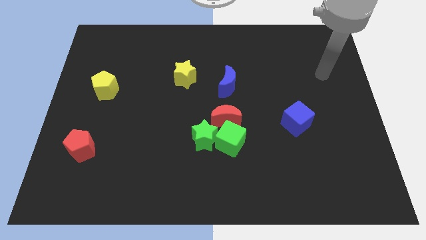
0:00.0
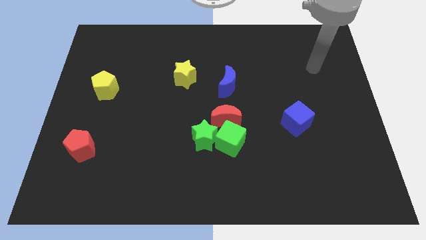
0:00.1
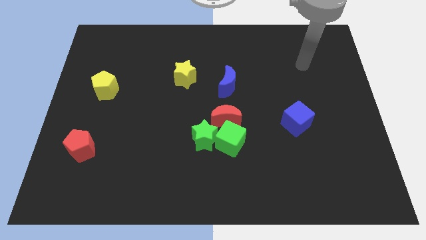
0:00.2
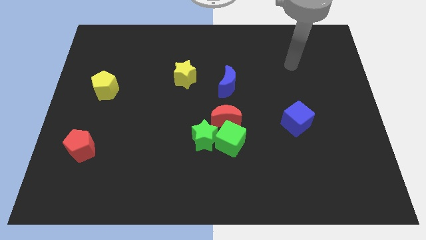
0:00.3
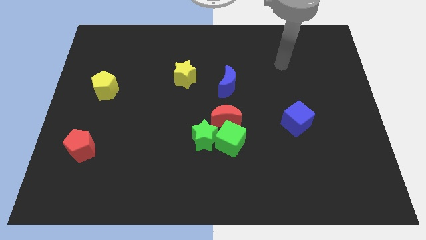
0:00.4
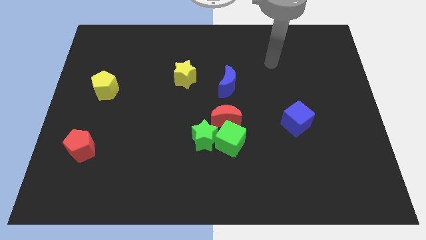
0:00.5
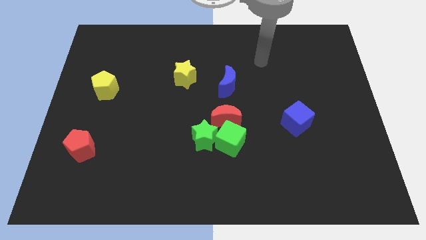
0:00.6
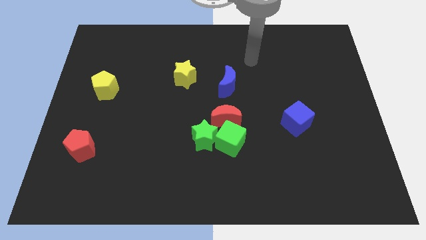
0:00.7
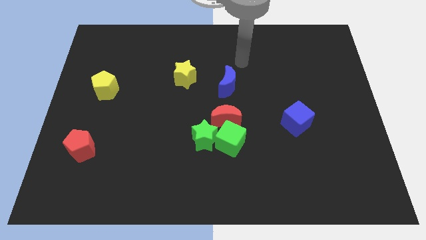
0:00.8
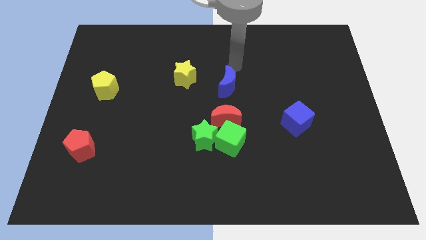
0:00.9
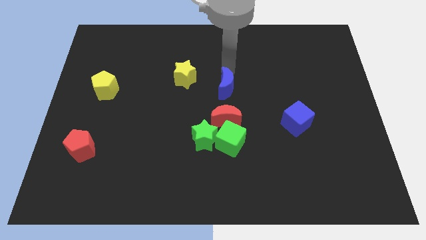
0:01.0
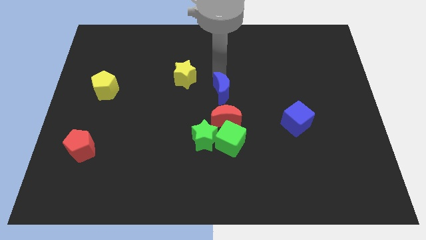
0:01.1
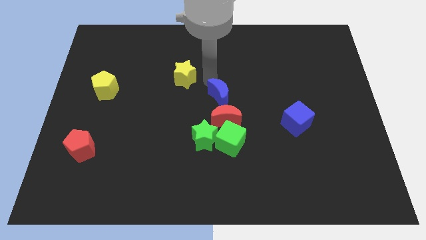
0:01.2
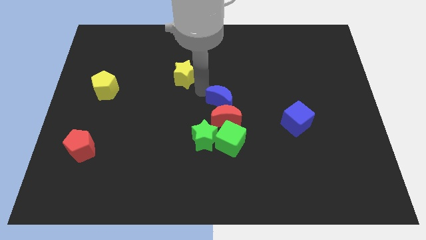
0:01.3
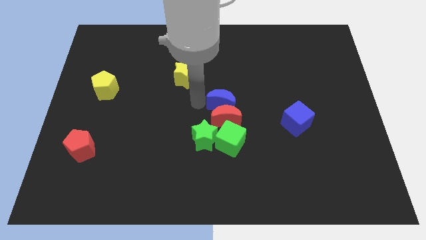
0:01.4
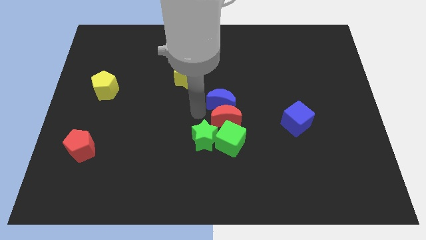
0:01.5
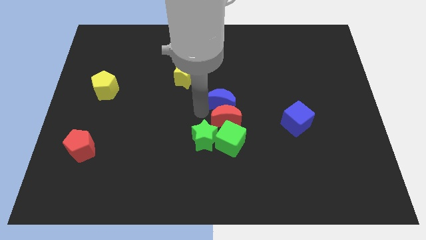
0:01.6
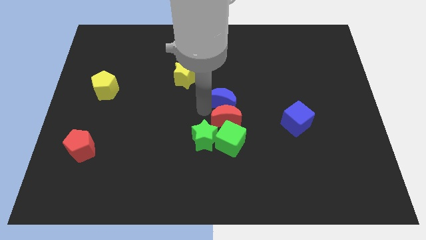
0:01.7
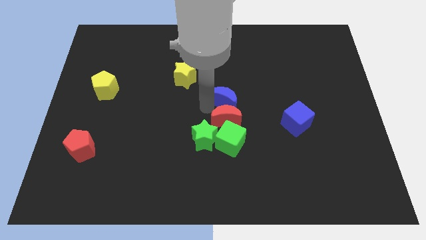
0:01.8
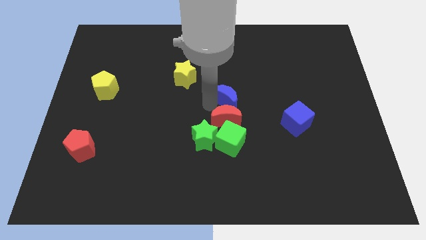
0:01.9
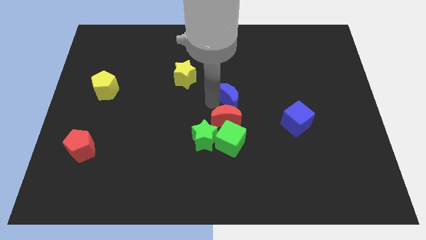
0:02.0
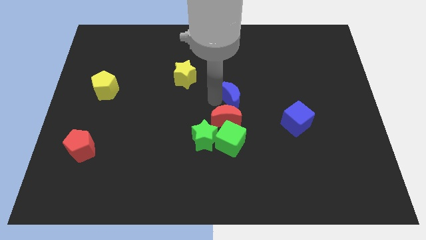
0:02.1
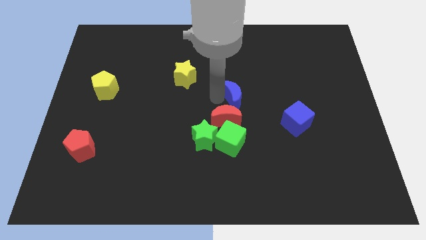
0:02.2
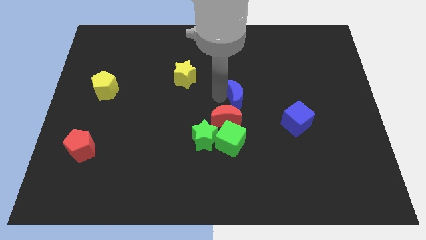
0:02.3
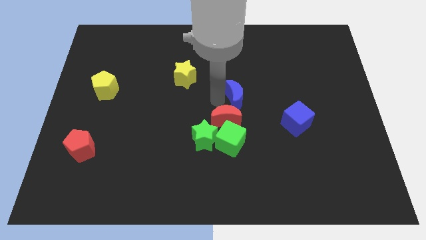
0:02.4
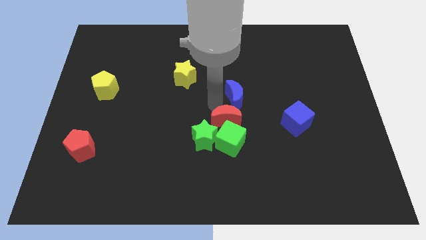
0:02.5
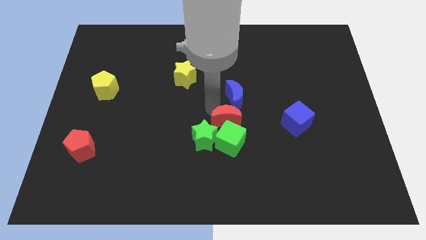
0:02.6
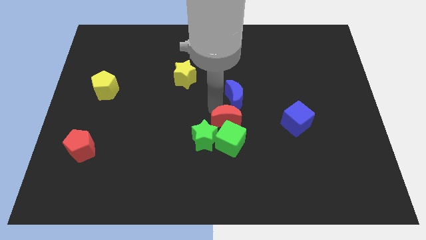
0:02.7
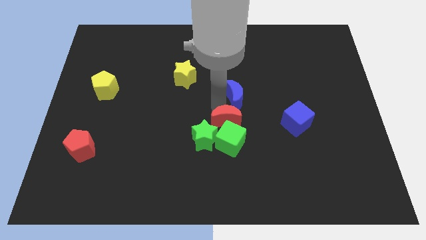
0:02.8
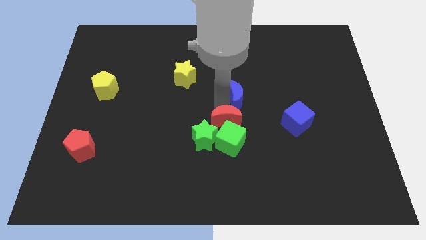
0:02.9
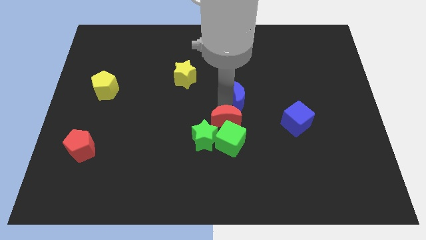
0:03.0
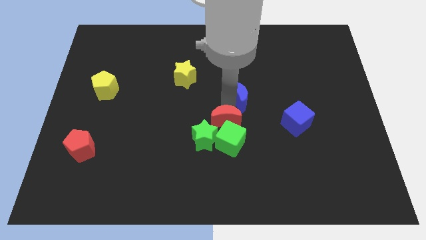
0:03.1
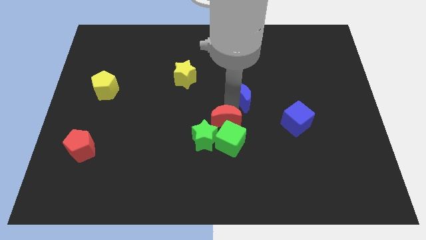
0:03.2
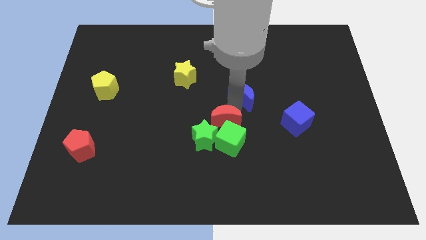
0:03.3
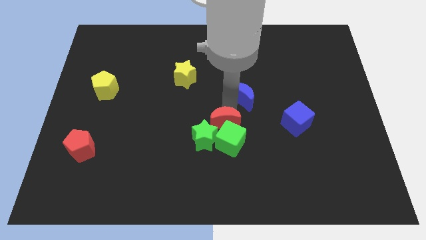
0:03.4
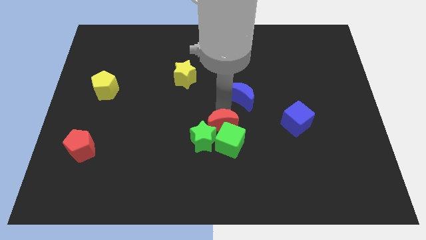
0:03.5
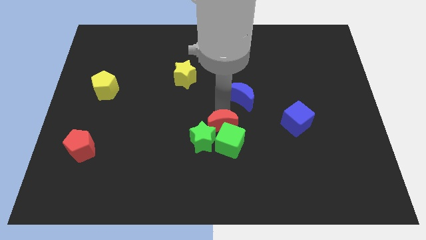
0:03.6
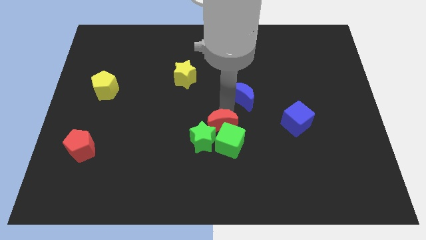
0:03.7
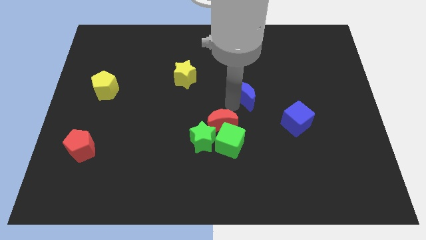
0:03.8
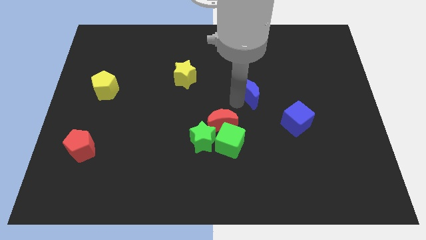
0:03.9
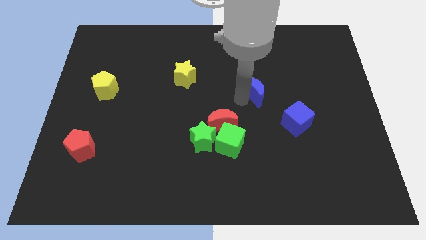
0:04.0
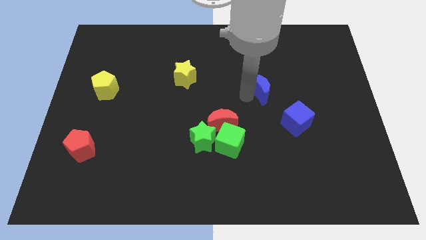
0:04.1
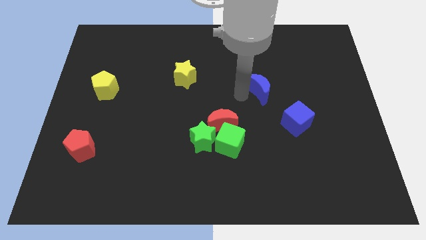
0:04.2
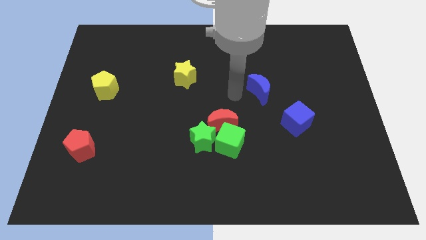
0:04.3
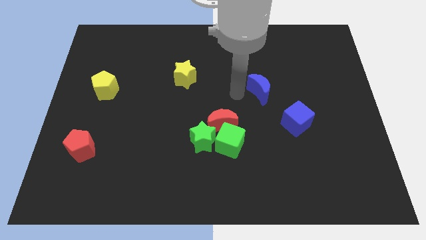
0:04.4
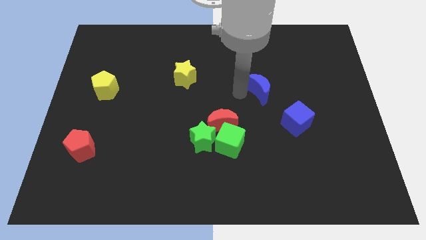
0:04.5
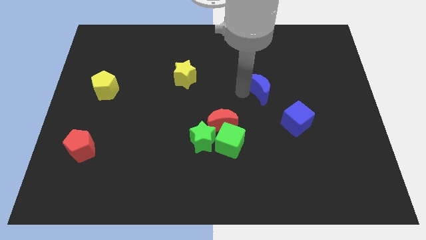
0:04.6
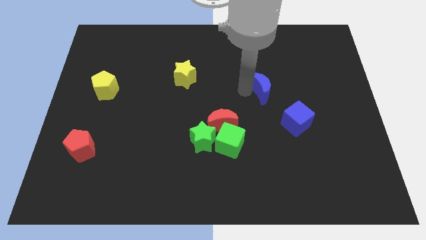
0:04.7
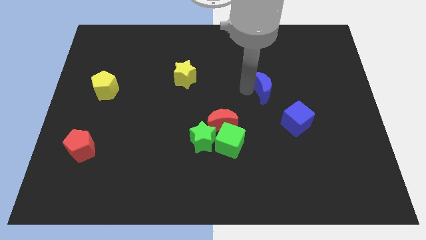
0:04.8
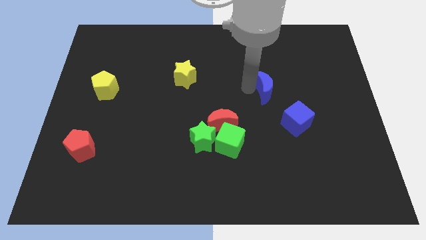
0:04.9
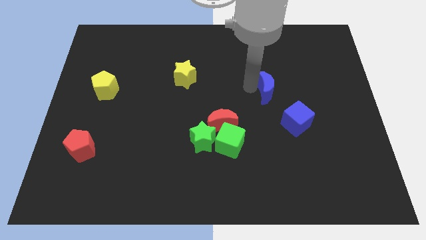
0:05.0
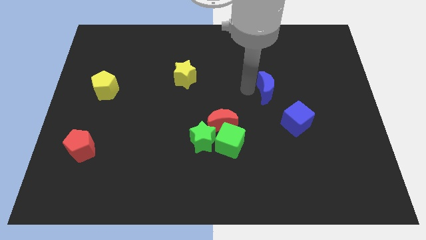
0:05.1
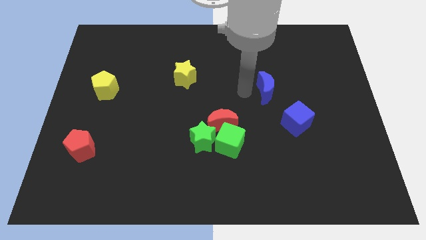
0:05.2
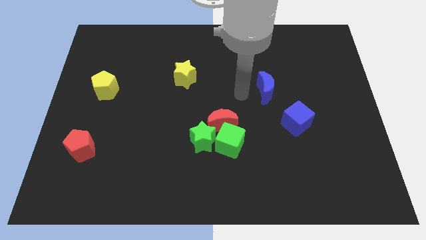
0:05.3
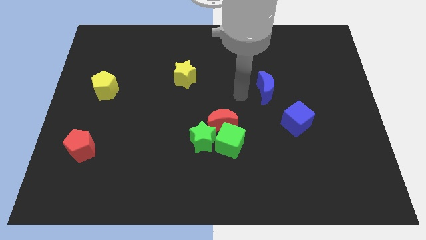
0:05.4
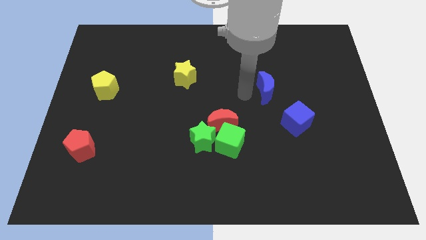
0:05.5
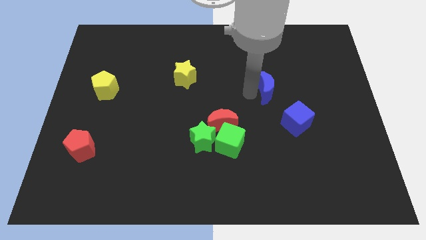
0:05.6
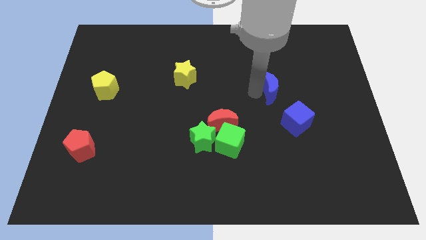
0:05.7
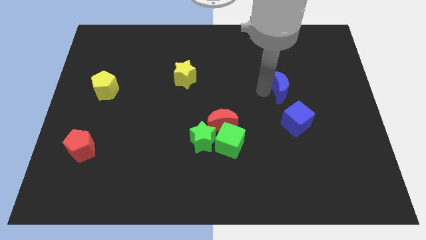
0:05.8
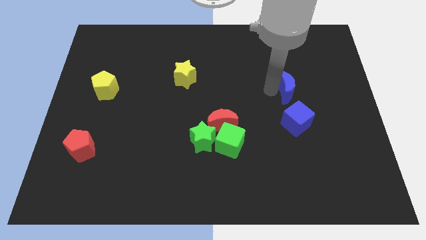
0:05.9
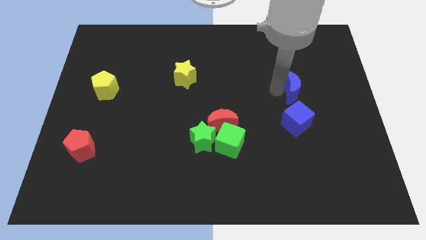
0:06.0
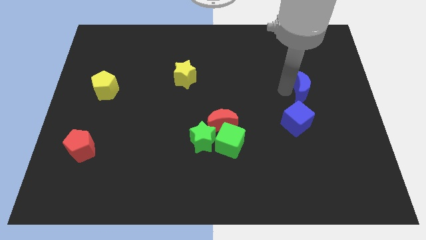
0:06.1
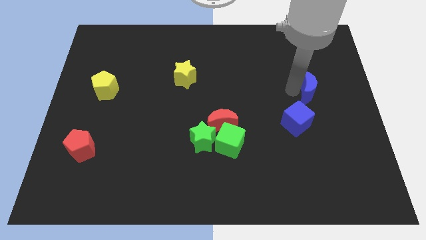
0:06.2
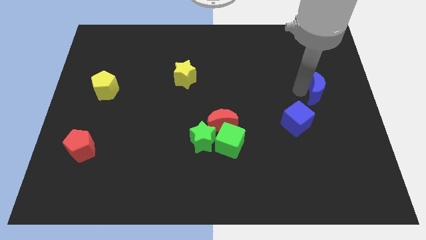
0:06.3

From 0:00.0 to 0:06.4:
move the blue moon to the right side of the board

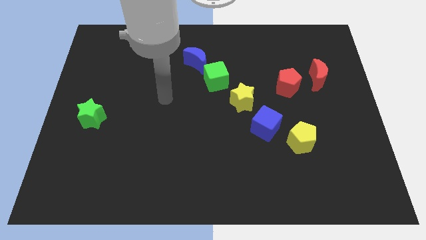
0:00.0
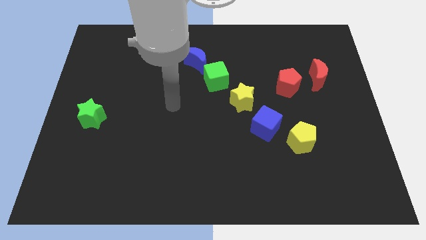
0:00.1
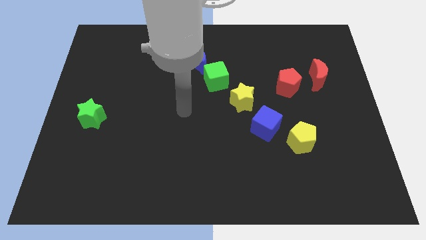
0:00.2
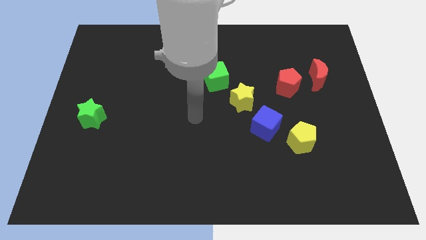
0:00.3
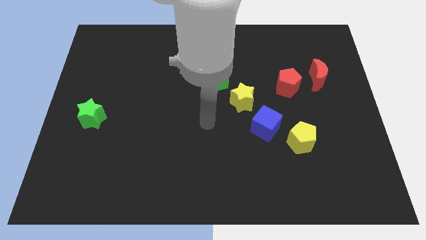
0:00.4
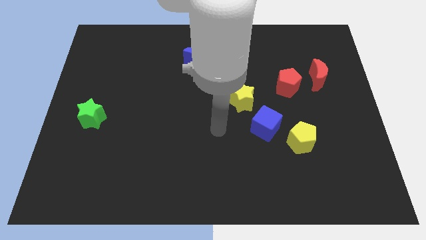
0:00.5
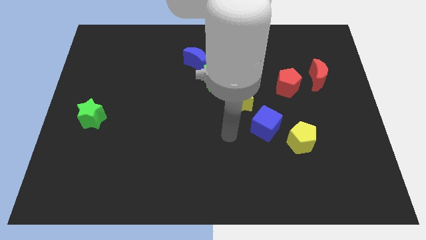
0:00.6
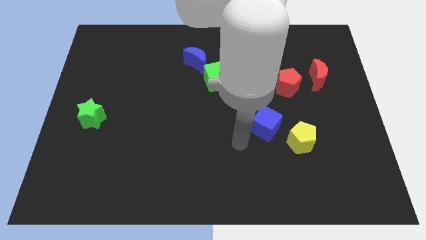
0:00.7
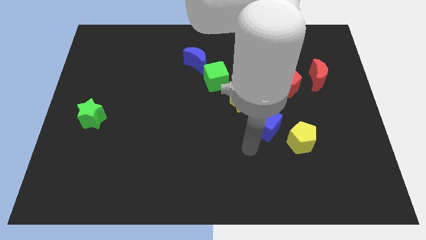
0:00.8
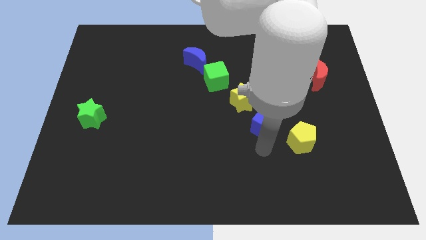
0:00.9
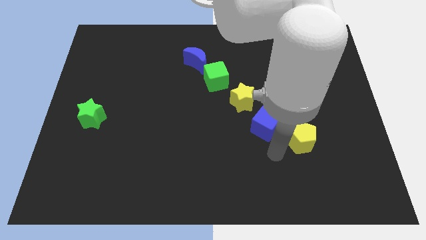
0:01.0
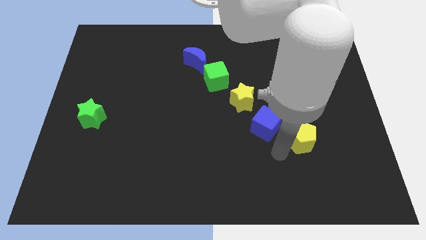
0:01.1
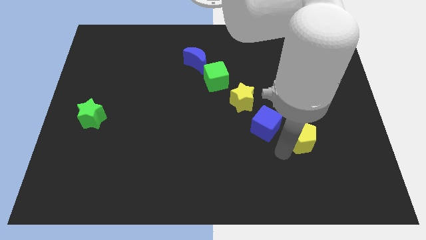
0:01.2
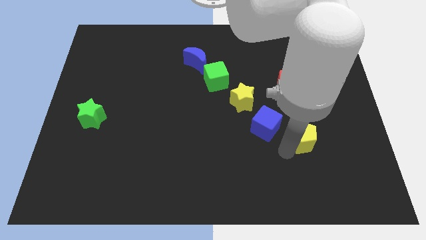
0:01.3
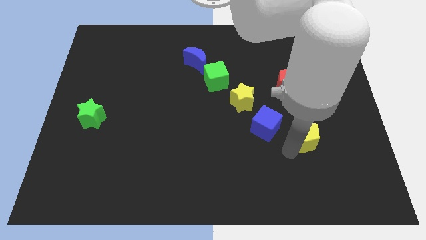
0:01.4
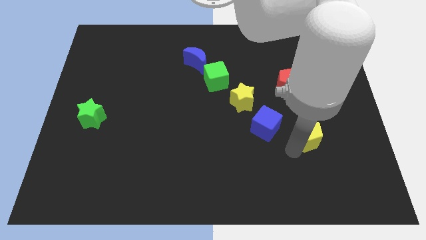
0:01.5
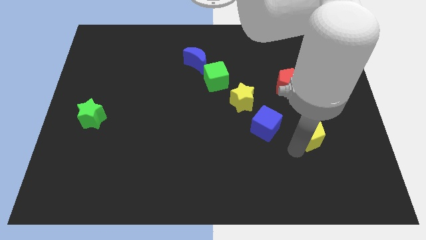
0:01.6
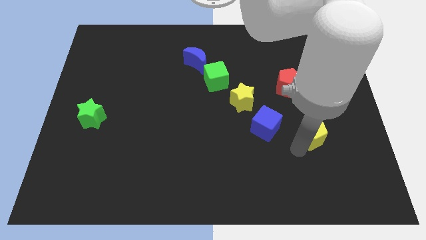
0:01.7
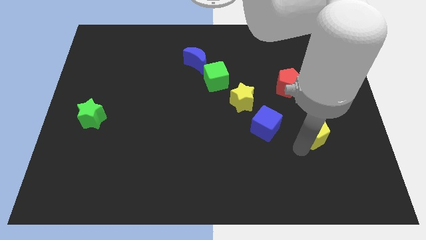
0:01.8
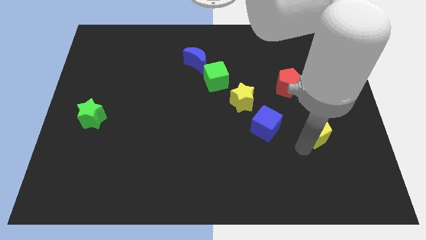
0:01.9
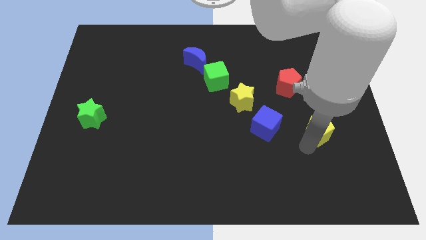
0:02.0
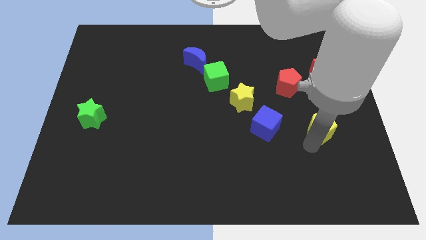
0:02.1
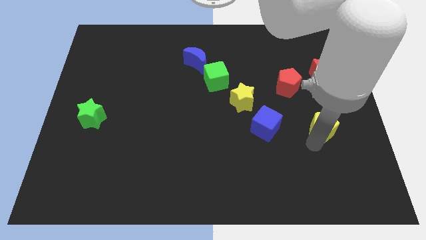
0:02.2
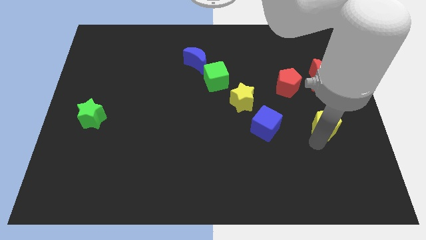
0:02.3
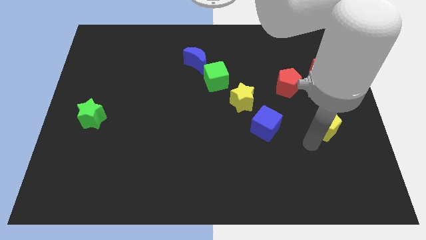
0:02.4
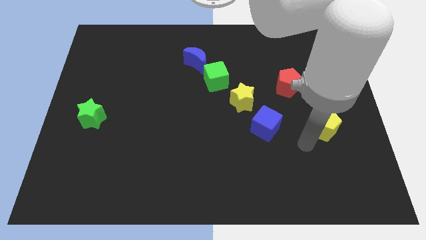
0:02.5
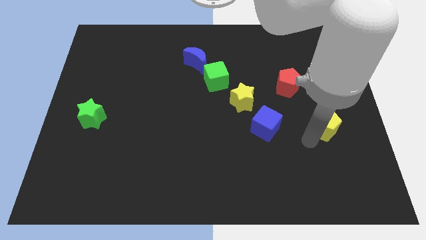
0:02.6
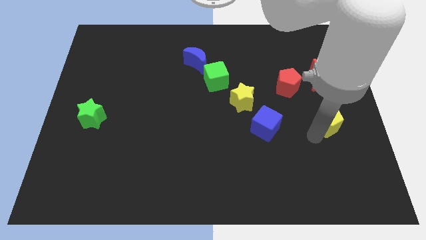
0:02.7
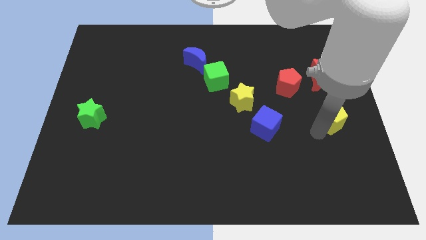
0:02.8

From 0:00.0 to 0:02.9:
slide the yellow pentagon to the right side
